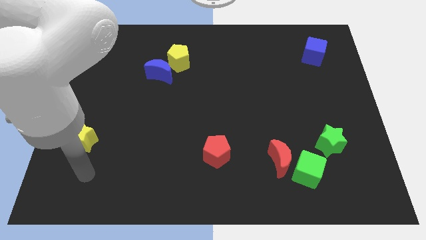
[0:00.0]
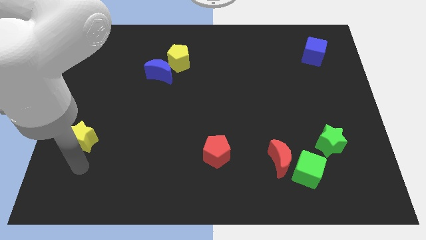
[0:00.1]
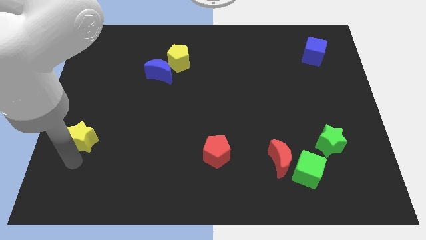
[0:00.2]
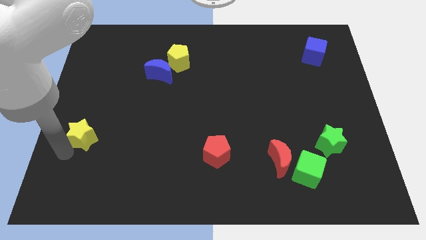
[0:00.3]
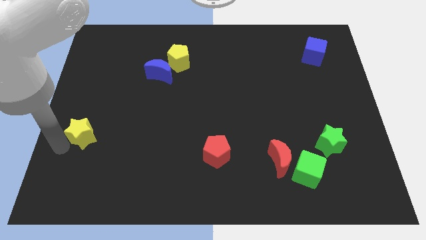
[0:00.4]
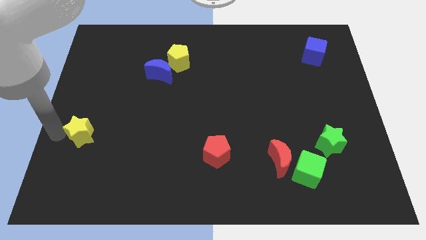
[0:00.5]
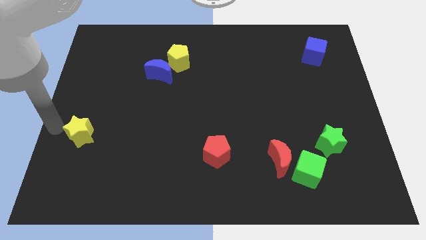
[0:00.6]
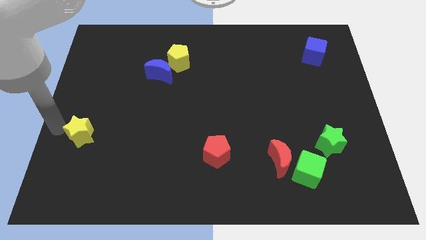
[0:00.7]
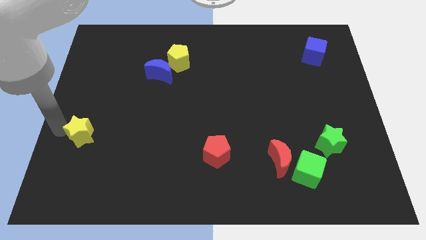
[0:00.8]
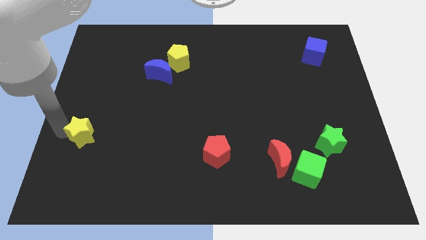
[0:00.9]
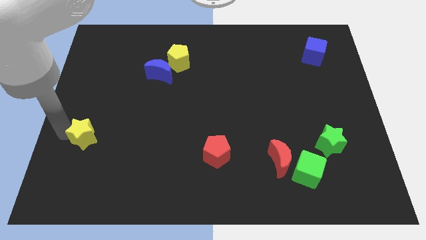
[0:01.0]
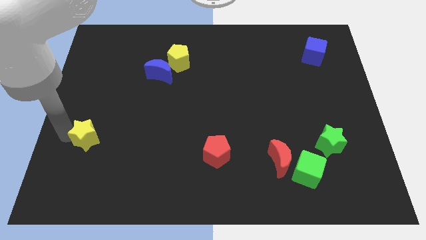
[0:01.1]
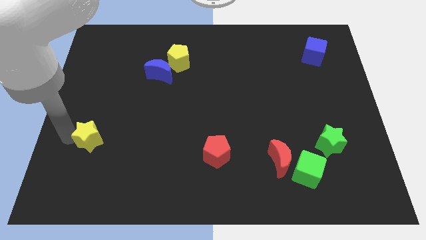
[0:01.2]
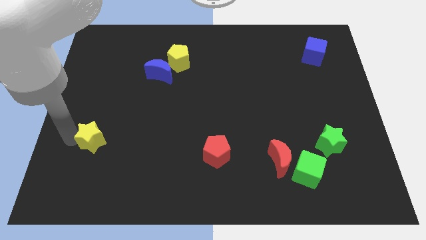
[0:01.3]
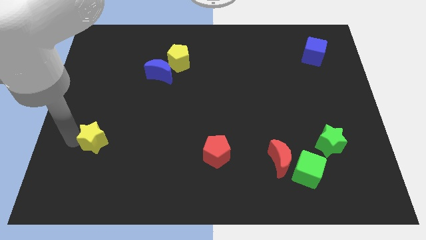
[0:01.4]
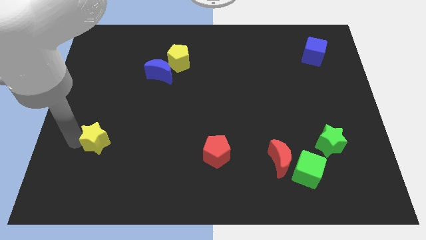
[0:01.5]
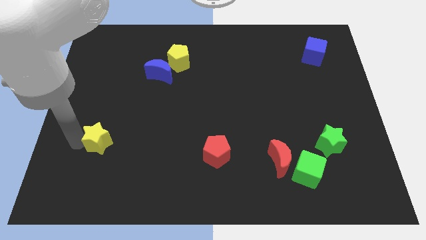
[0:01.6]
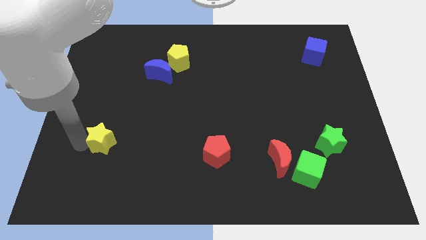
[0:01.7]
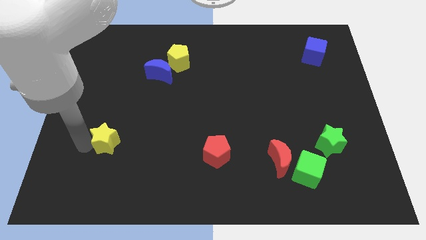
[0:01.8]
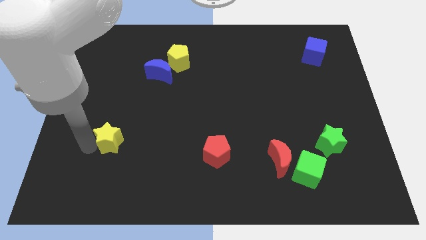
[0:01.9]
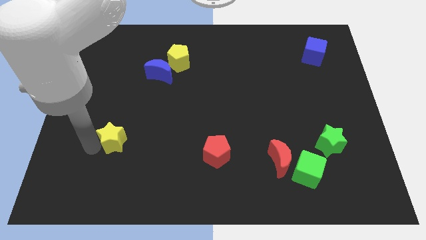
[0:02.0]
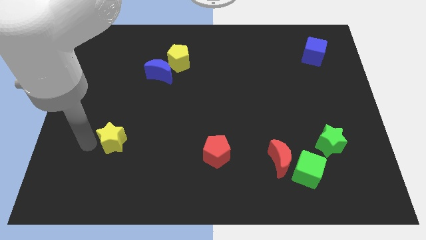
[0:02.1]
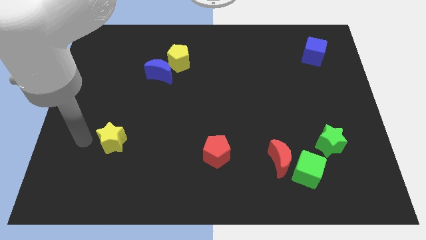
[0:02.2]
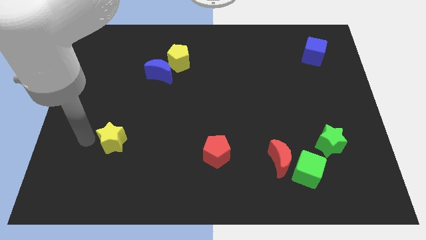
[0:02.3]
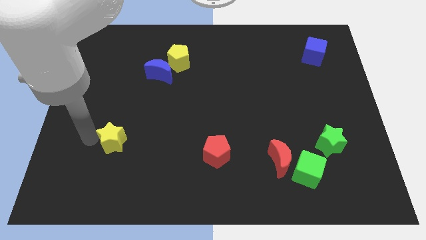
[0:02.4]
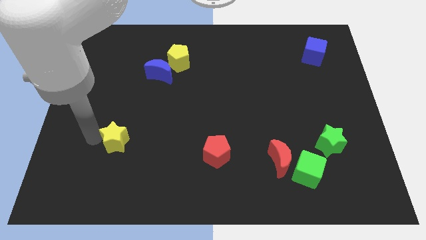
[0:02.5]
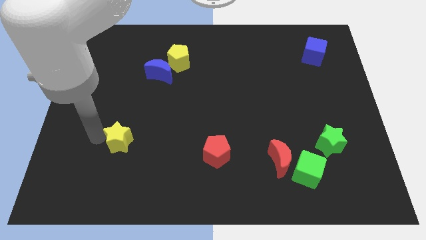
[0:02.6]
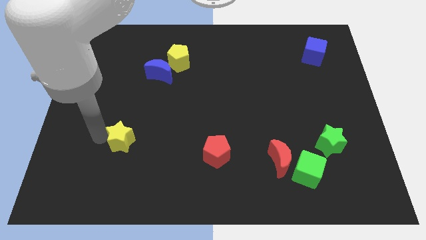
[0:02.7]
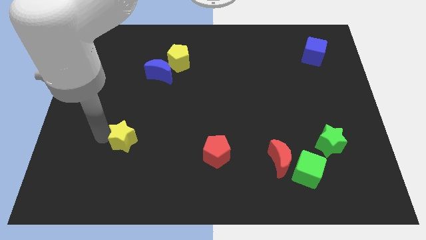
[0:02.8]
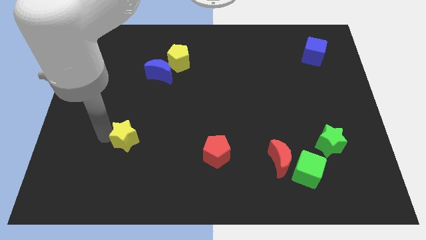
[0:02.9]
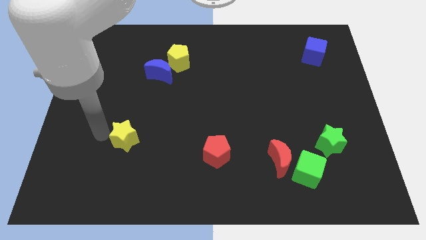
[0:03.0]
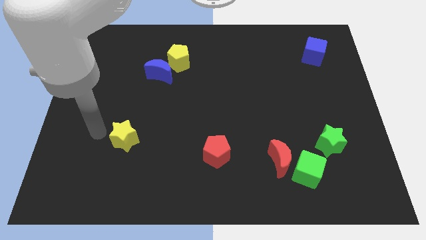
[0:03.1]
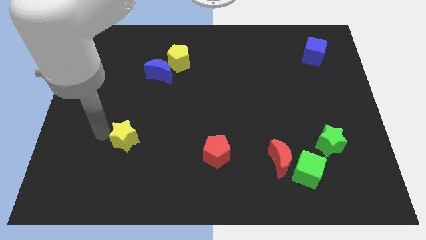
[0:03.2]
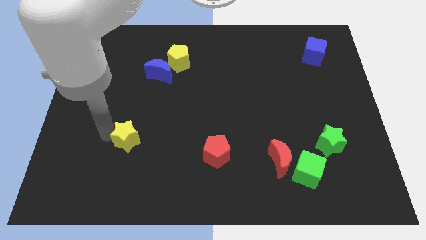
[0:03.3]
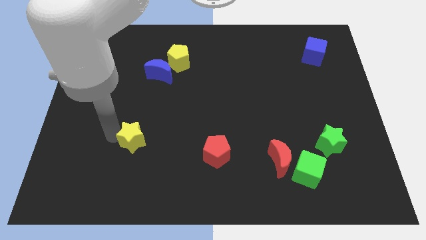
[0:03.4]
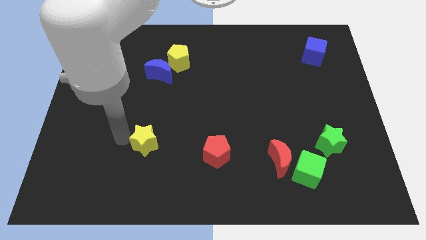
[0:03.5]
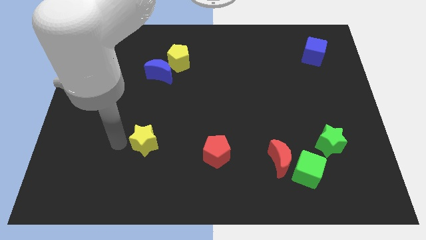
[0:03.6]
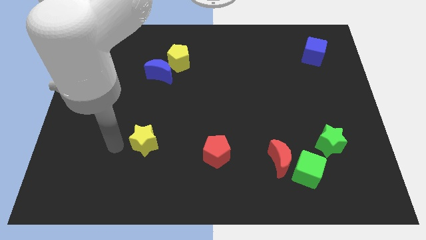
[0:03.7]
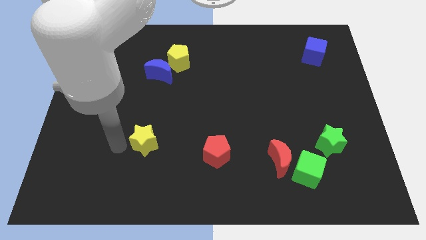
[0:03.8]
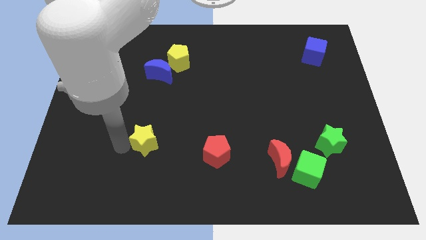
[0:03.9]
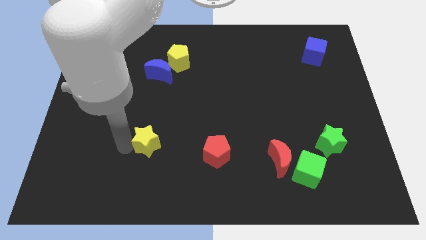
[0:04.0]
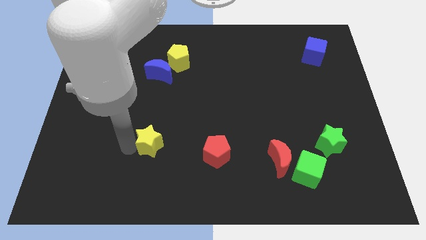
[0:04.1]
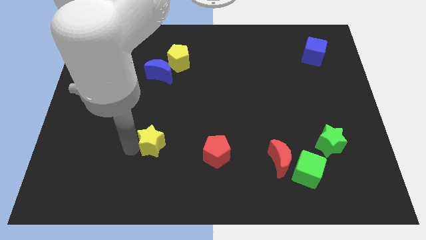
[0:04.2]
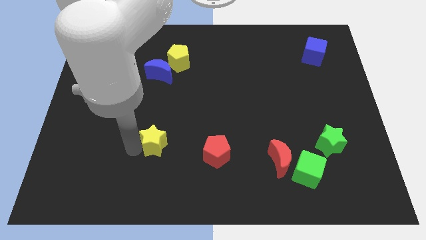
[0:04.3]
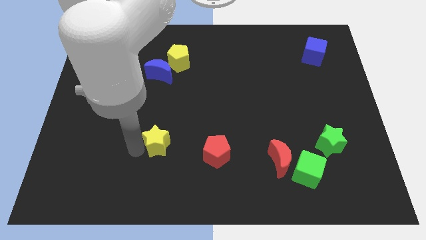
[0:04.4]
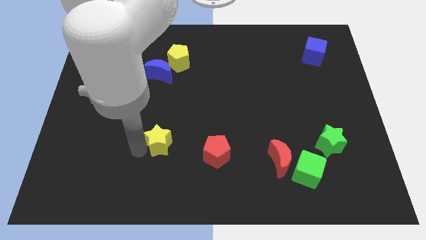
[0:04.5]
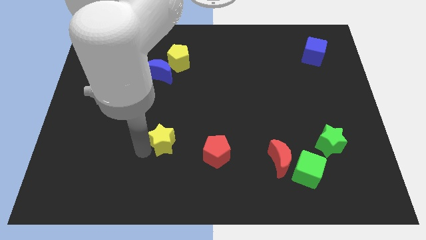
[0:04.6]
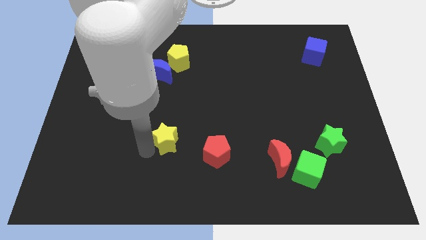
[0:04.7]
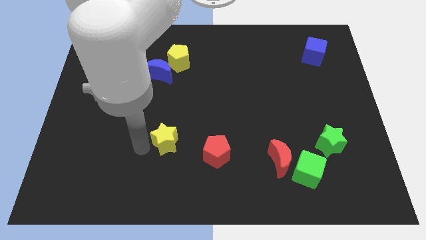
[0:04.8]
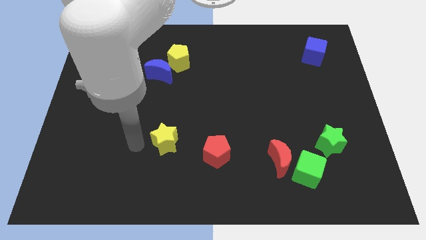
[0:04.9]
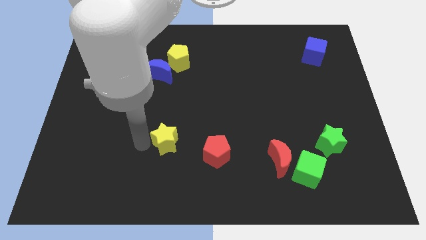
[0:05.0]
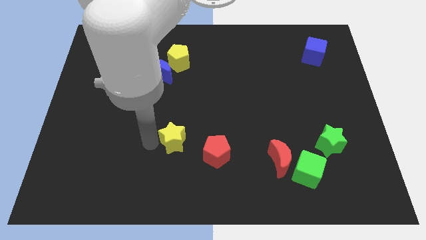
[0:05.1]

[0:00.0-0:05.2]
move the yellow star right

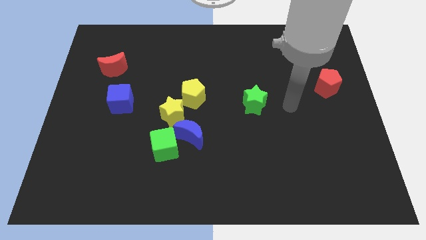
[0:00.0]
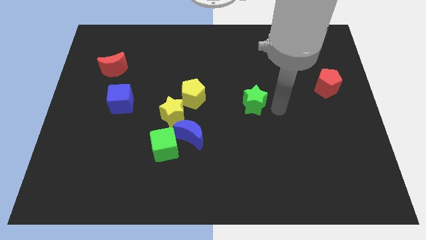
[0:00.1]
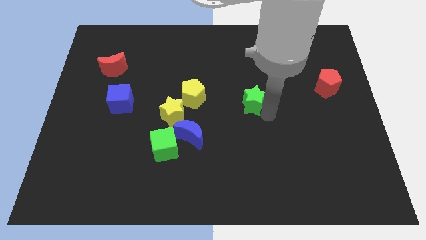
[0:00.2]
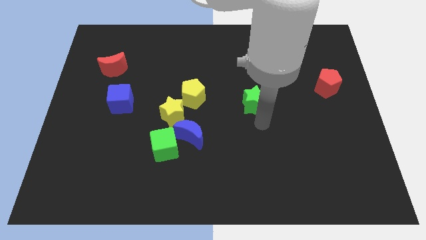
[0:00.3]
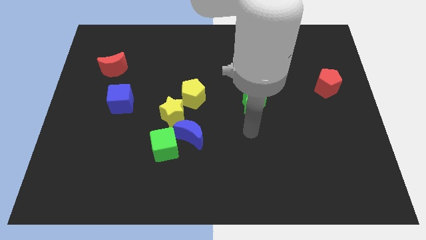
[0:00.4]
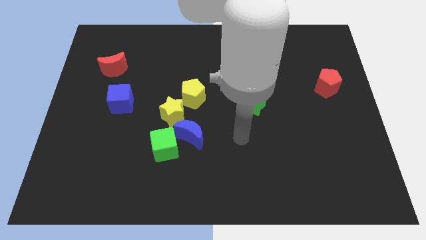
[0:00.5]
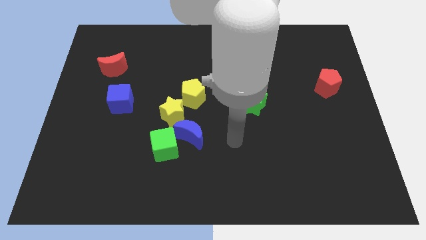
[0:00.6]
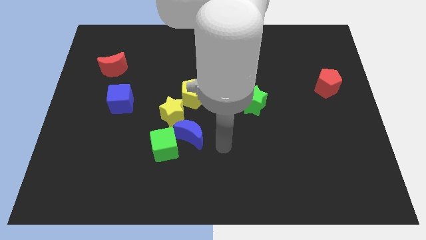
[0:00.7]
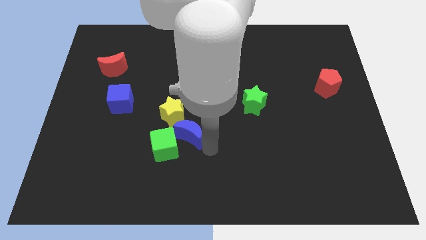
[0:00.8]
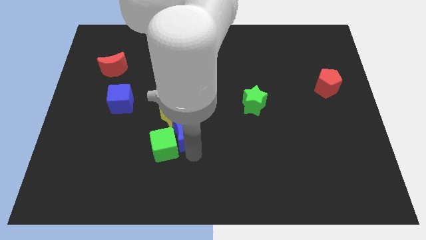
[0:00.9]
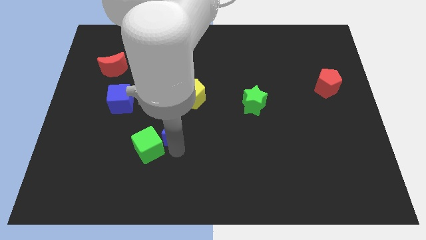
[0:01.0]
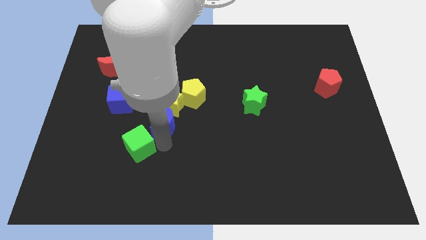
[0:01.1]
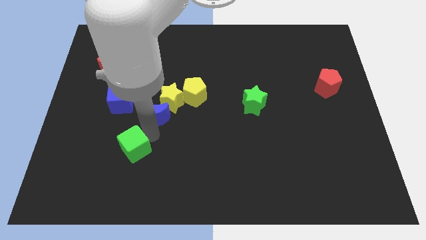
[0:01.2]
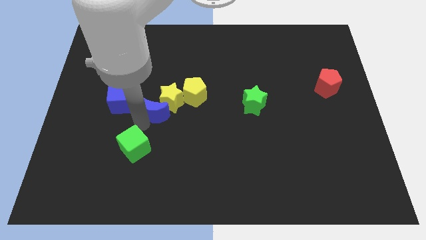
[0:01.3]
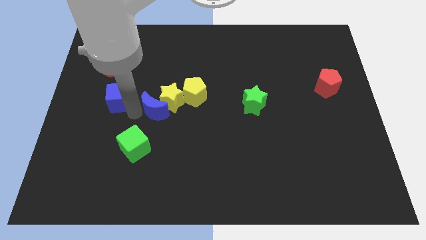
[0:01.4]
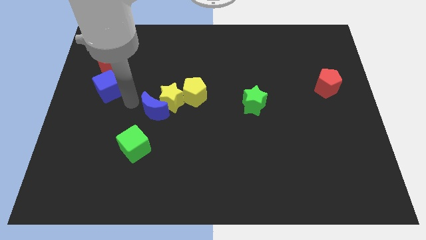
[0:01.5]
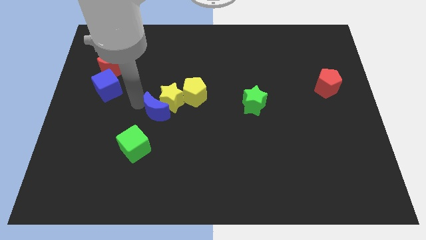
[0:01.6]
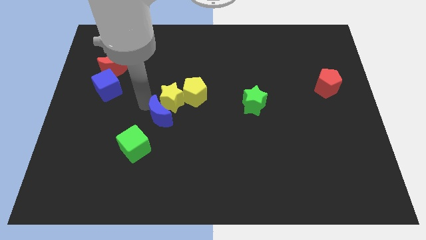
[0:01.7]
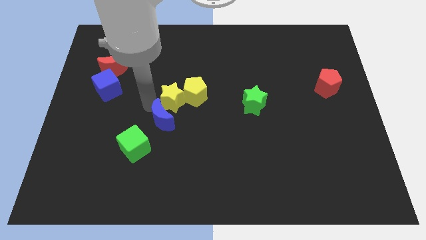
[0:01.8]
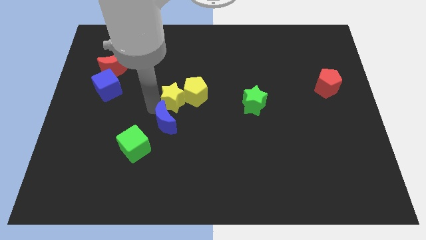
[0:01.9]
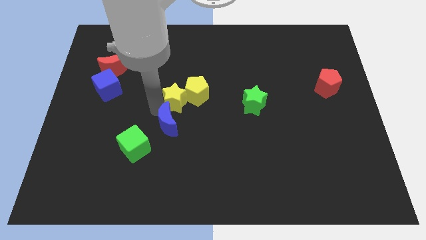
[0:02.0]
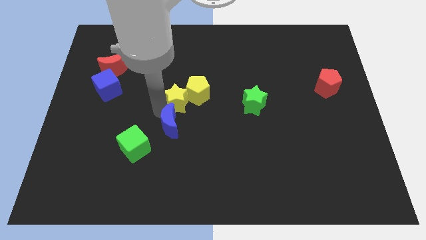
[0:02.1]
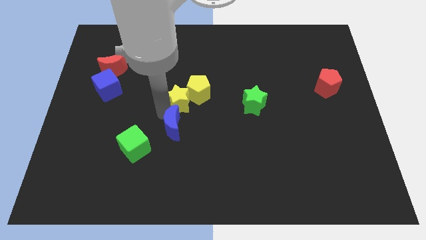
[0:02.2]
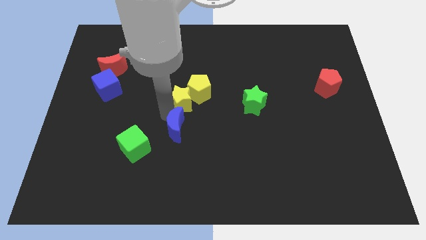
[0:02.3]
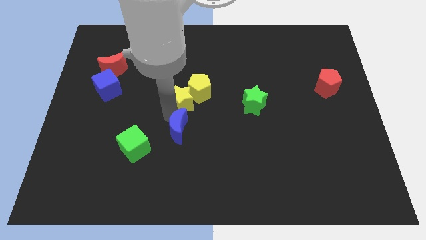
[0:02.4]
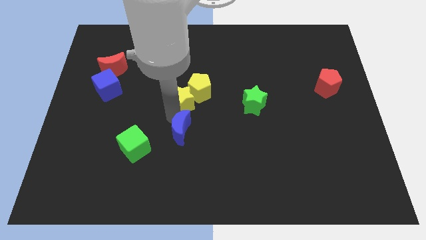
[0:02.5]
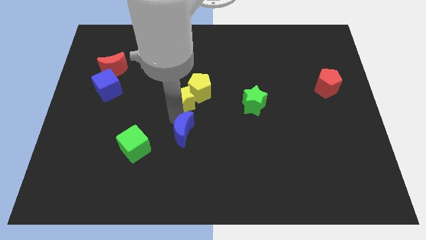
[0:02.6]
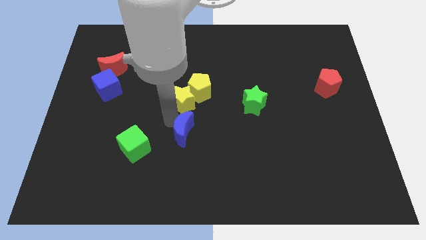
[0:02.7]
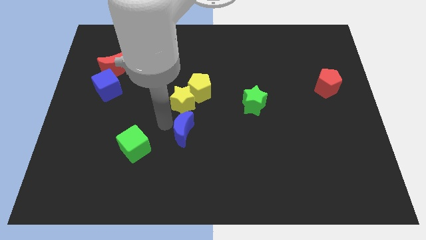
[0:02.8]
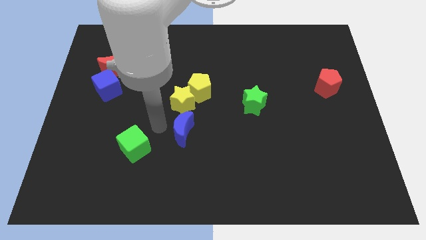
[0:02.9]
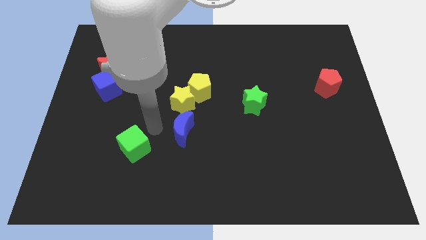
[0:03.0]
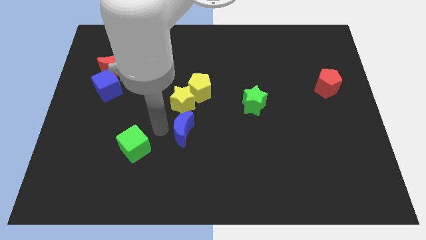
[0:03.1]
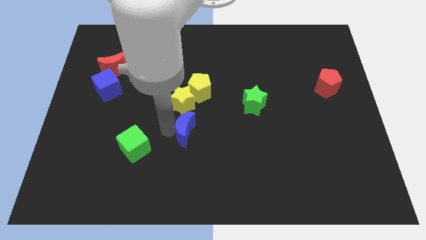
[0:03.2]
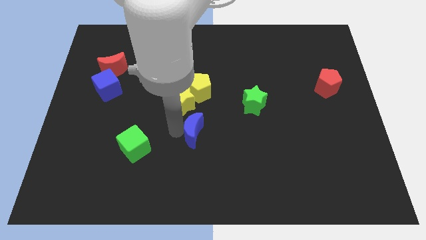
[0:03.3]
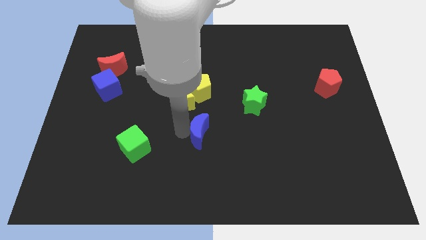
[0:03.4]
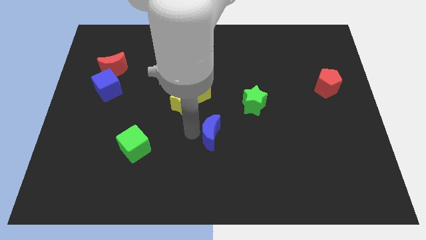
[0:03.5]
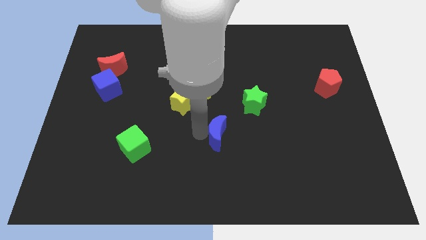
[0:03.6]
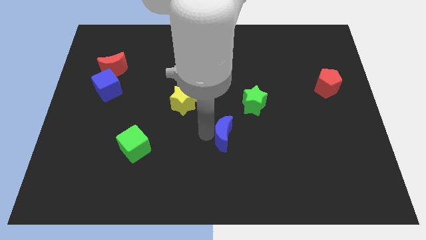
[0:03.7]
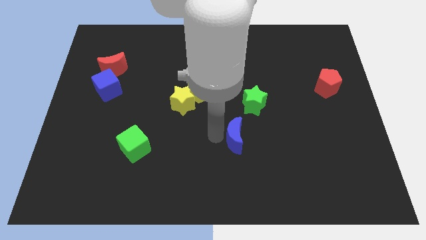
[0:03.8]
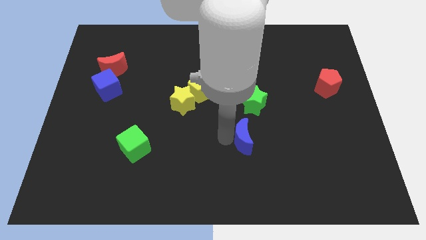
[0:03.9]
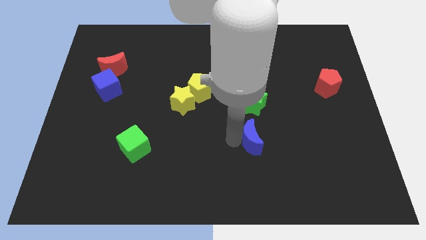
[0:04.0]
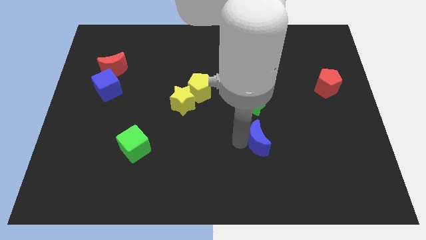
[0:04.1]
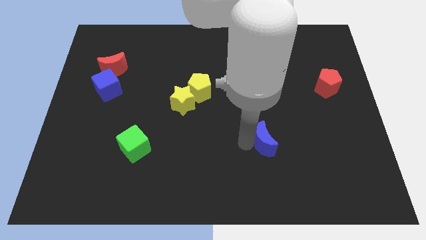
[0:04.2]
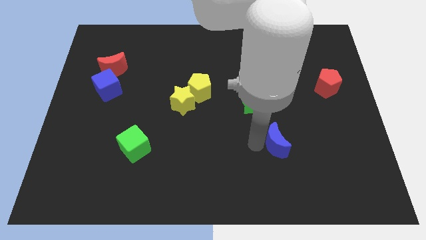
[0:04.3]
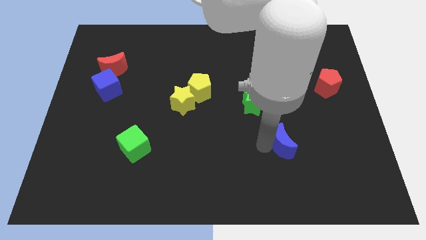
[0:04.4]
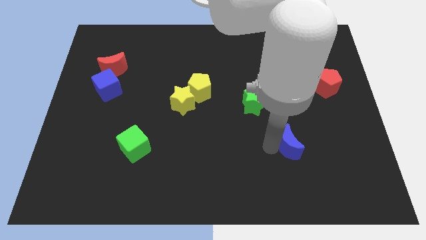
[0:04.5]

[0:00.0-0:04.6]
push the blue moon to the right
